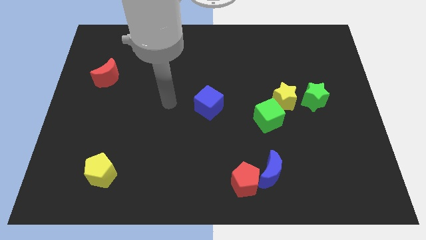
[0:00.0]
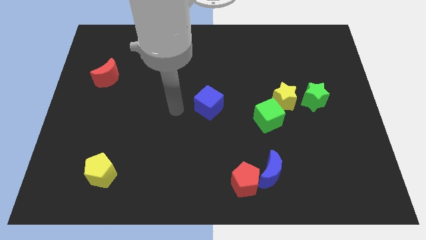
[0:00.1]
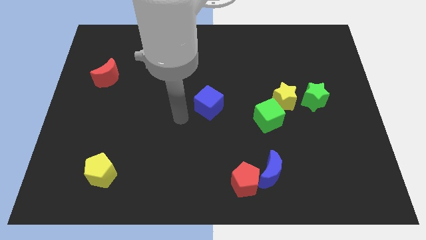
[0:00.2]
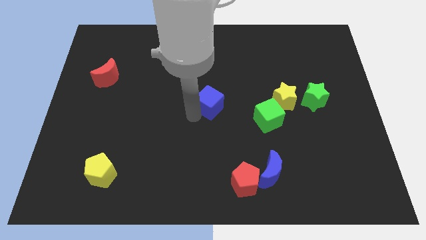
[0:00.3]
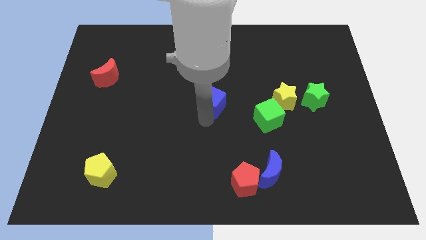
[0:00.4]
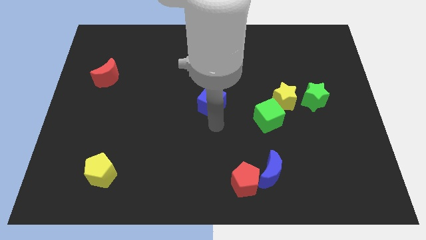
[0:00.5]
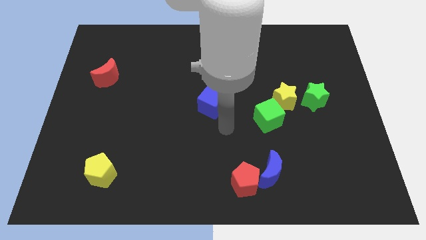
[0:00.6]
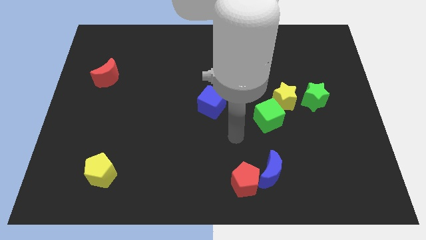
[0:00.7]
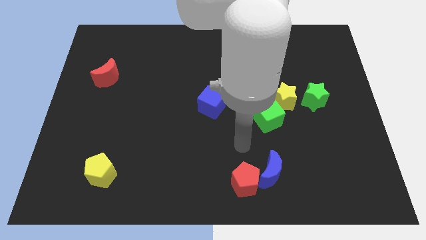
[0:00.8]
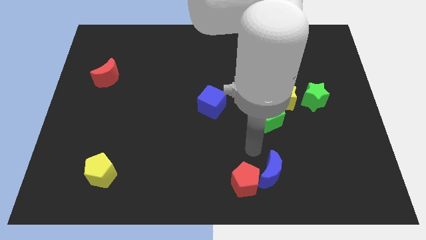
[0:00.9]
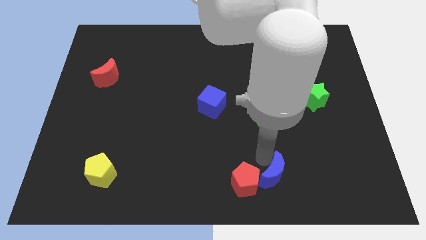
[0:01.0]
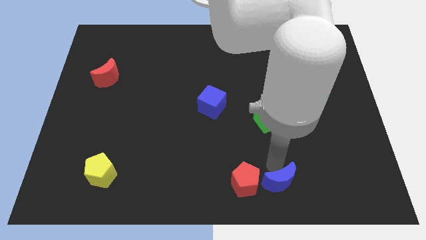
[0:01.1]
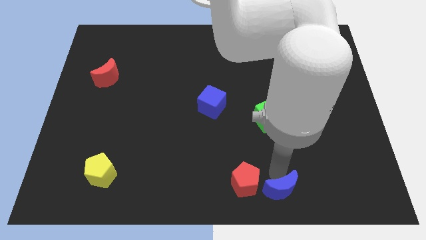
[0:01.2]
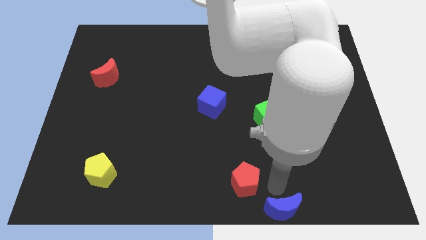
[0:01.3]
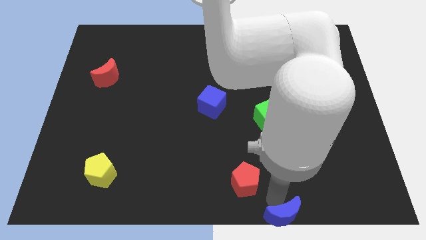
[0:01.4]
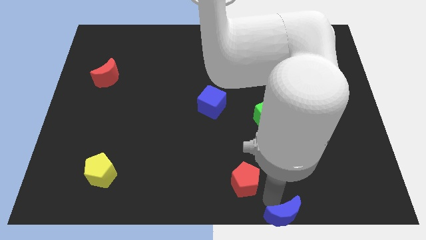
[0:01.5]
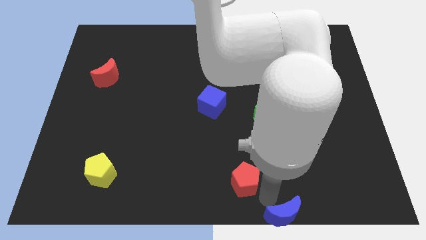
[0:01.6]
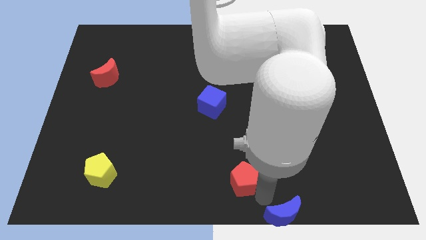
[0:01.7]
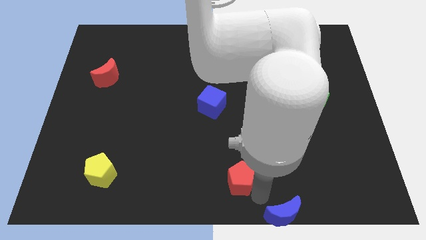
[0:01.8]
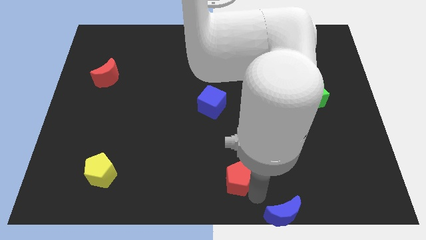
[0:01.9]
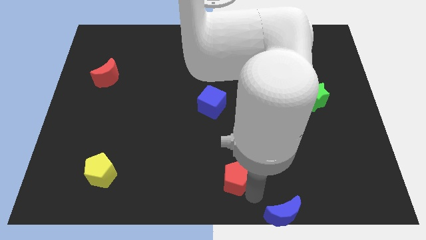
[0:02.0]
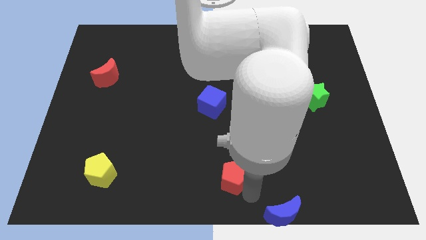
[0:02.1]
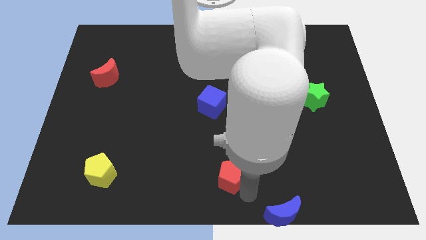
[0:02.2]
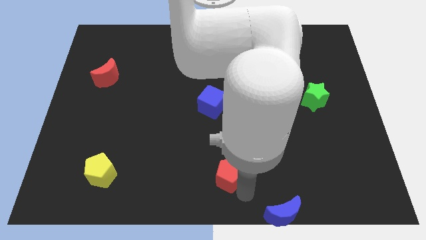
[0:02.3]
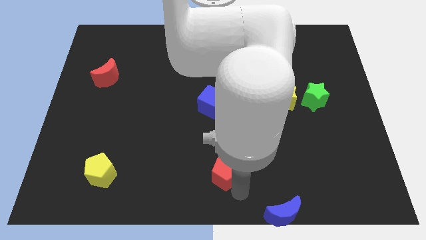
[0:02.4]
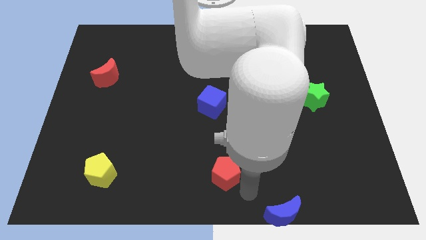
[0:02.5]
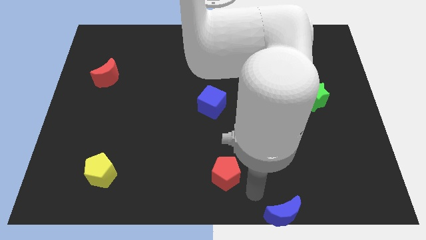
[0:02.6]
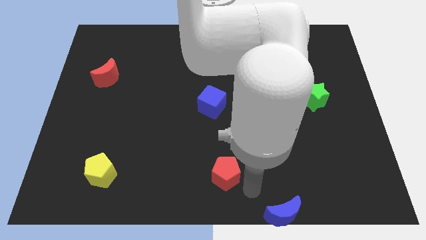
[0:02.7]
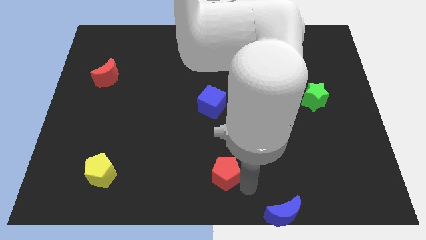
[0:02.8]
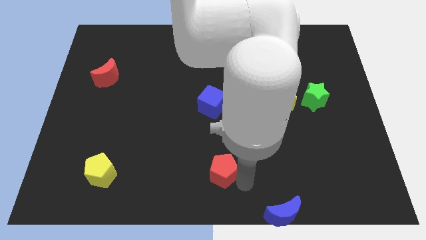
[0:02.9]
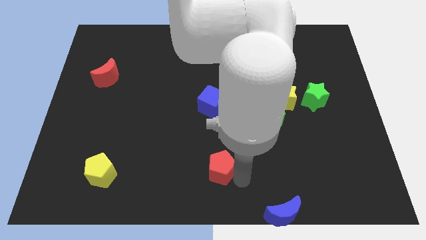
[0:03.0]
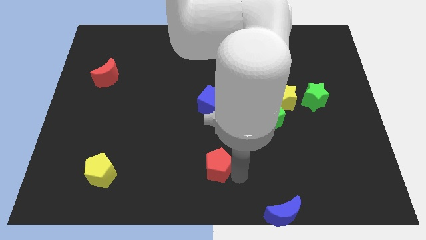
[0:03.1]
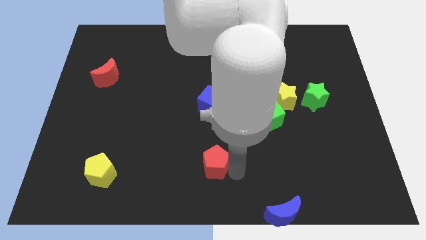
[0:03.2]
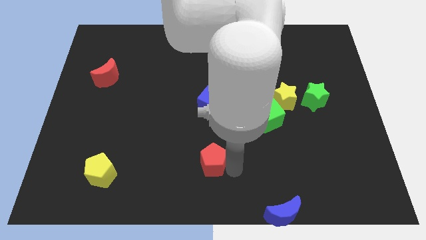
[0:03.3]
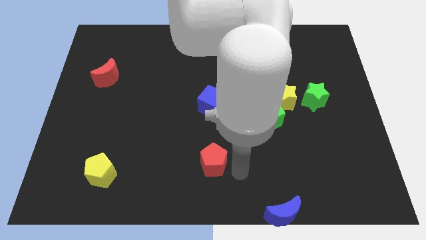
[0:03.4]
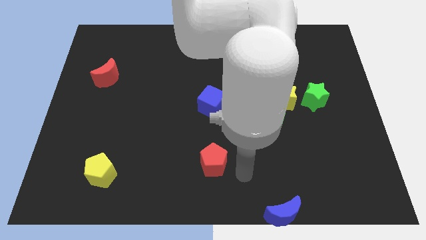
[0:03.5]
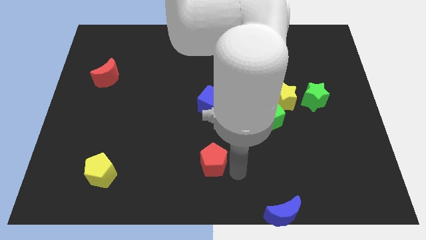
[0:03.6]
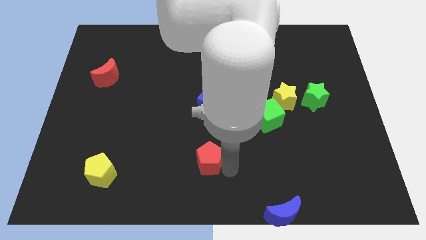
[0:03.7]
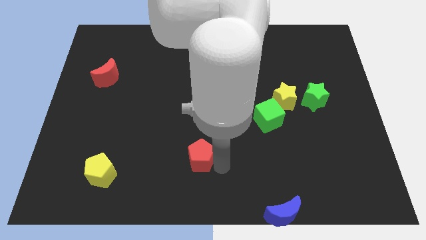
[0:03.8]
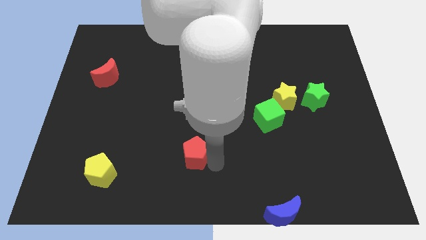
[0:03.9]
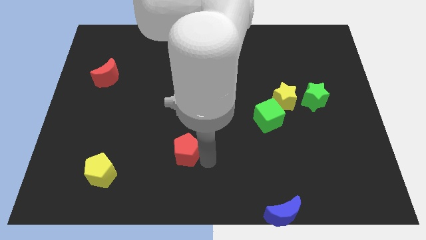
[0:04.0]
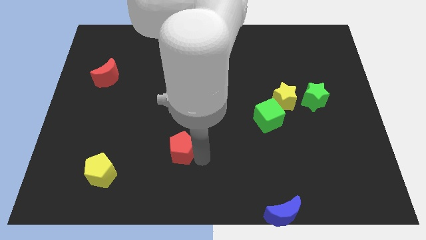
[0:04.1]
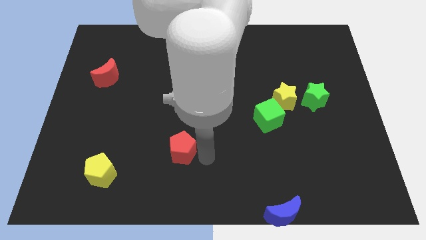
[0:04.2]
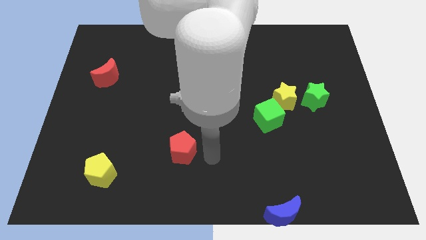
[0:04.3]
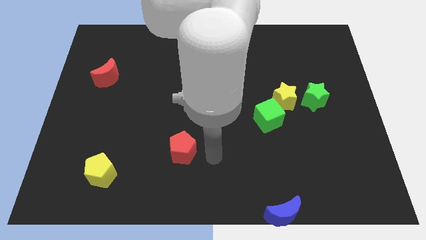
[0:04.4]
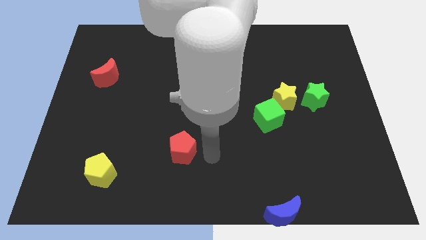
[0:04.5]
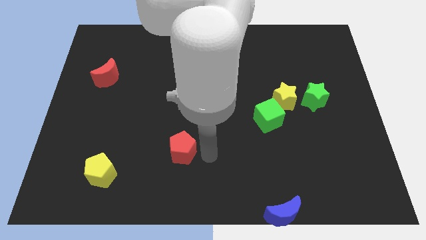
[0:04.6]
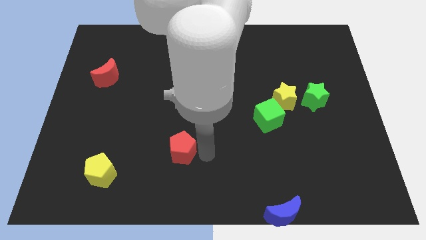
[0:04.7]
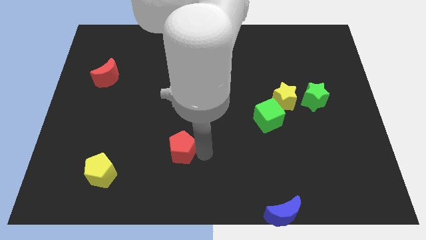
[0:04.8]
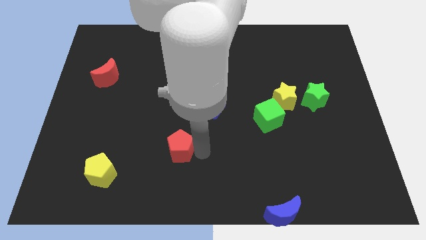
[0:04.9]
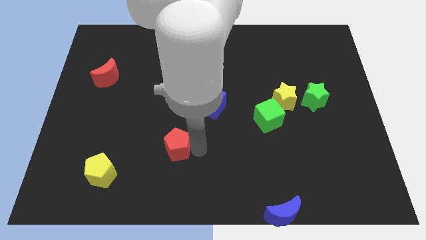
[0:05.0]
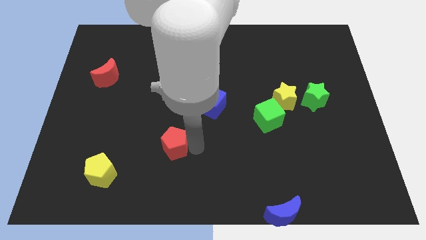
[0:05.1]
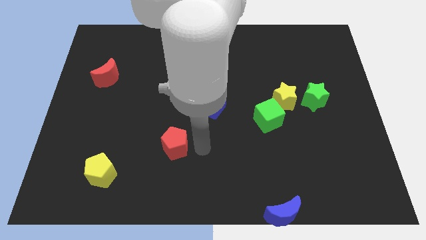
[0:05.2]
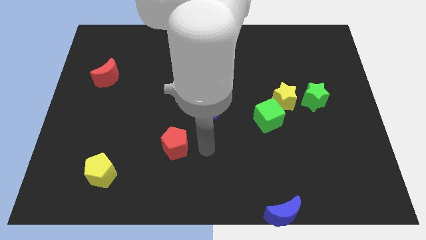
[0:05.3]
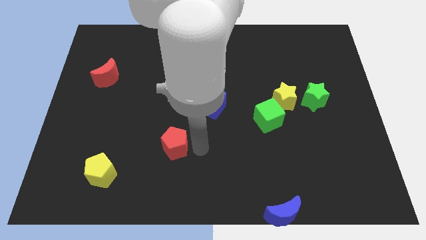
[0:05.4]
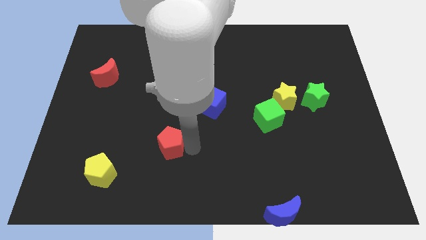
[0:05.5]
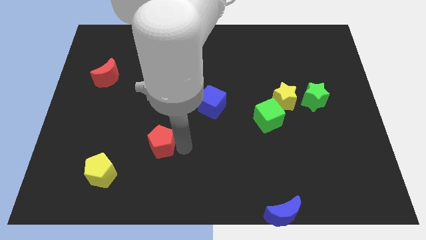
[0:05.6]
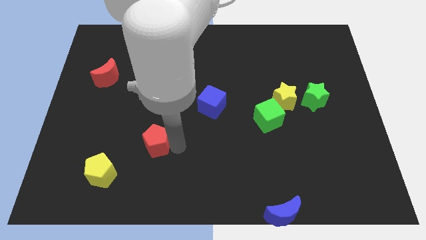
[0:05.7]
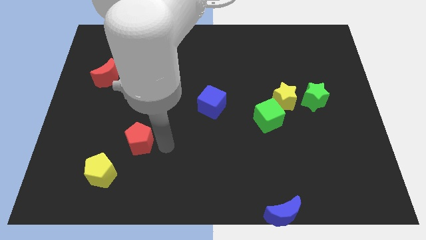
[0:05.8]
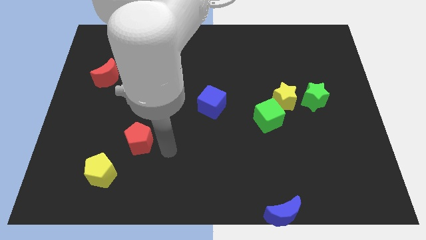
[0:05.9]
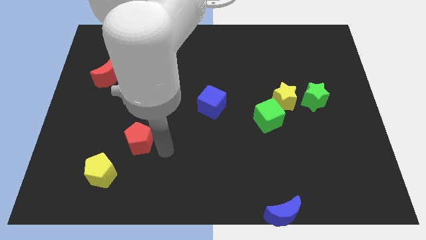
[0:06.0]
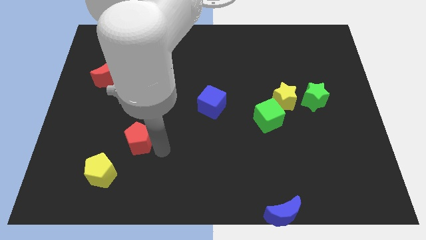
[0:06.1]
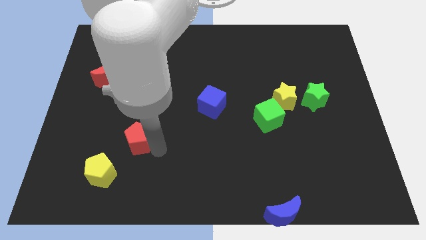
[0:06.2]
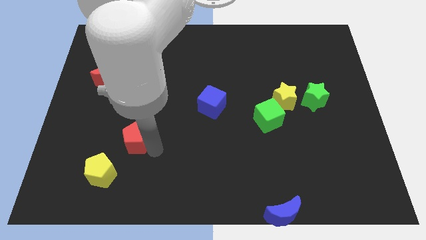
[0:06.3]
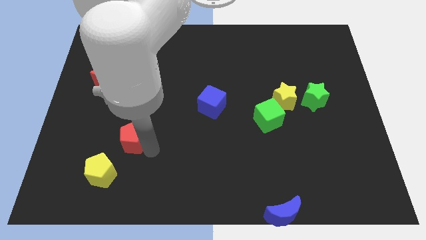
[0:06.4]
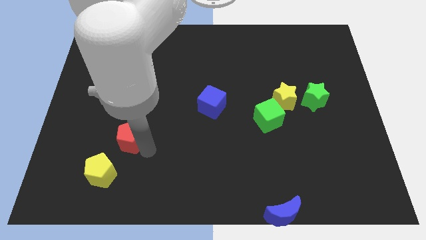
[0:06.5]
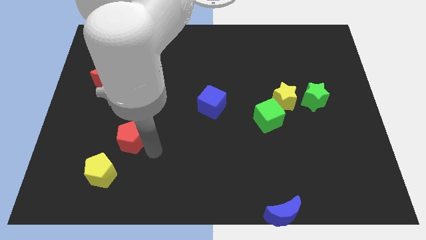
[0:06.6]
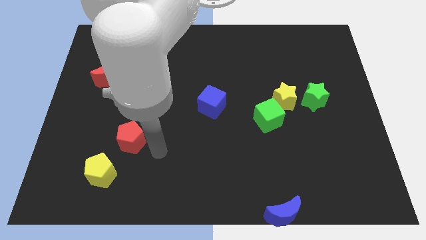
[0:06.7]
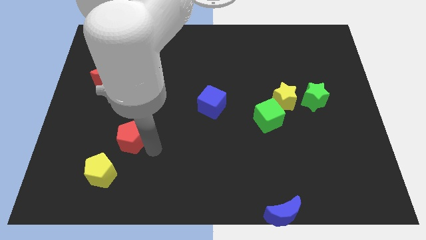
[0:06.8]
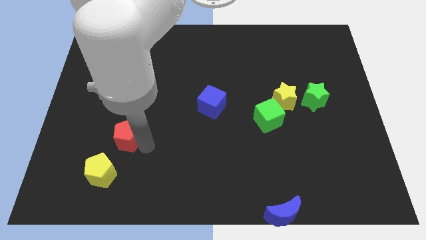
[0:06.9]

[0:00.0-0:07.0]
slide the red pentagon to the top of the yellow pentagon
